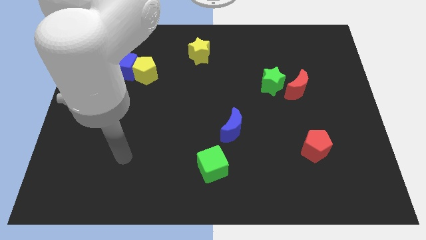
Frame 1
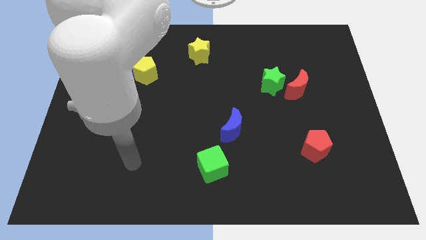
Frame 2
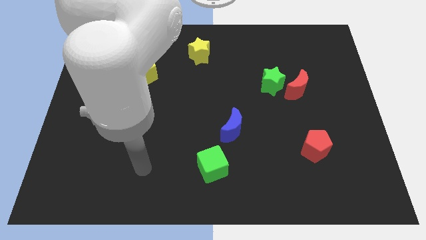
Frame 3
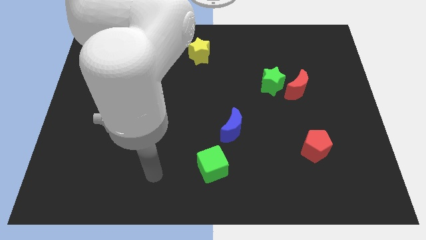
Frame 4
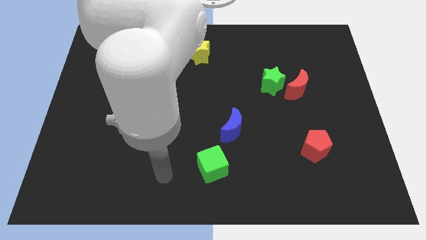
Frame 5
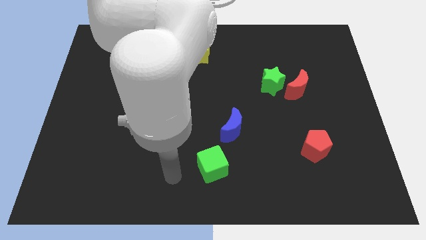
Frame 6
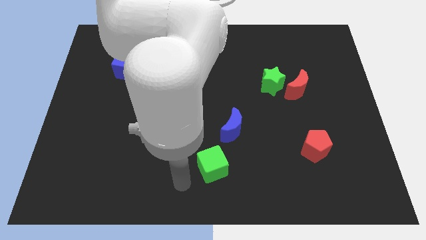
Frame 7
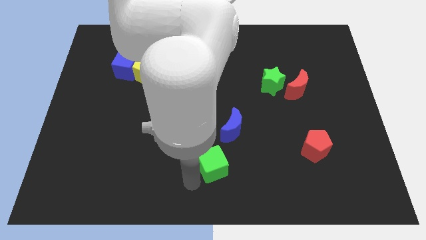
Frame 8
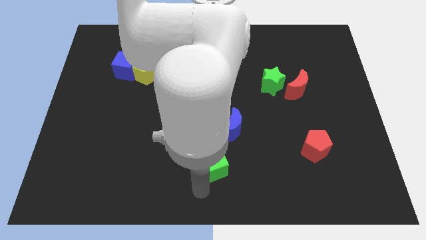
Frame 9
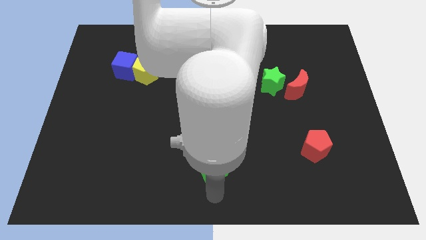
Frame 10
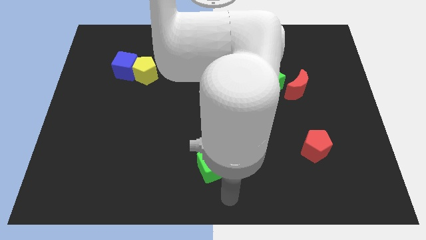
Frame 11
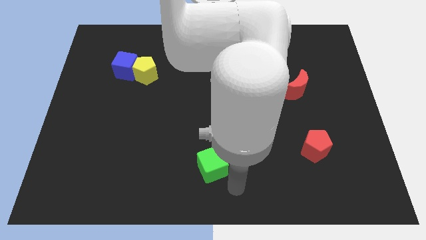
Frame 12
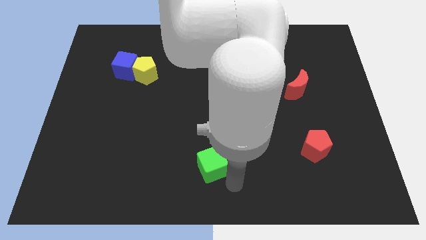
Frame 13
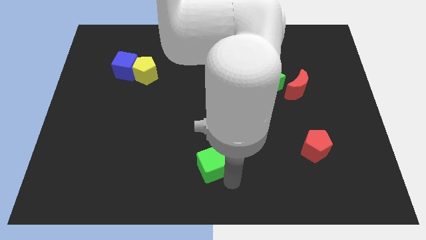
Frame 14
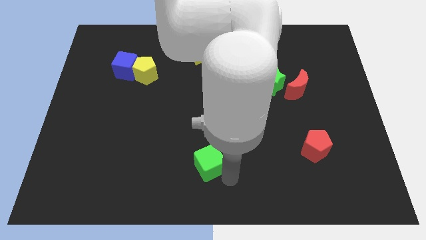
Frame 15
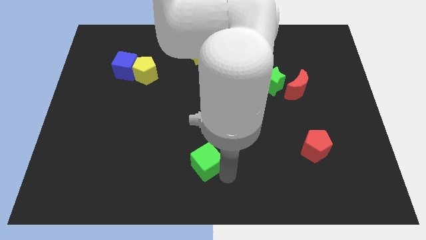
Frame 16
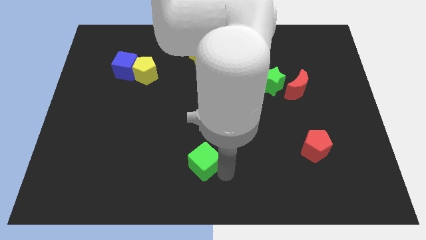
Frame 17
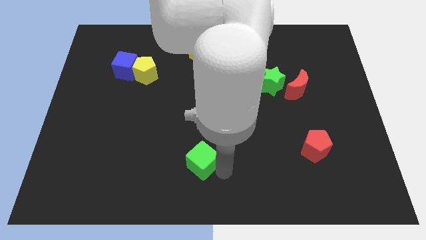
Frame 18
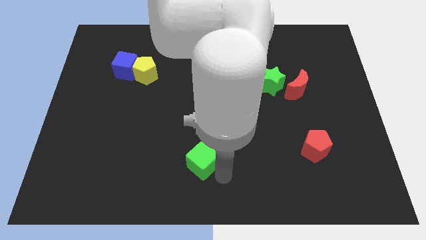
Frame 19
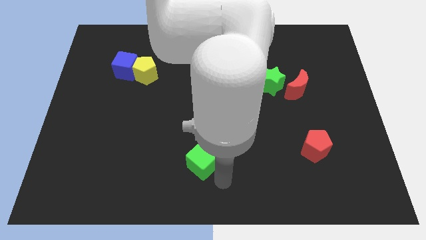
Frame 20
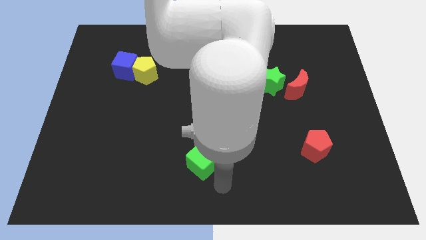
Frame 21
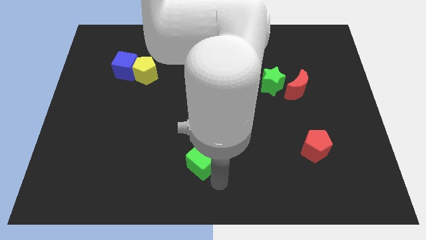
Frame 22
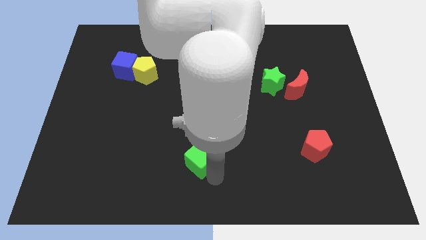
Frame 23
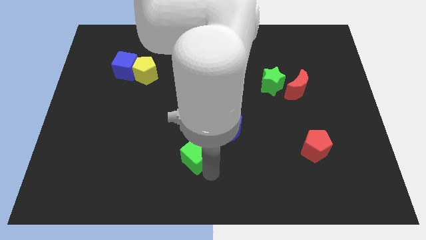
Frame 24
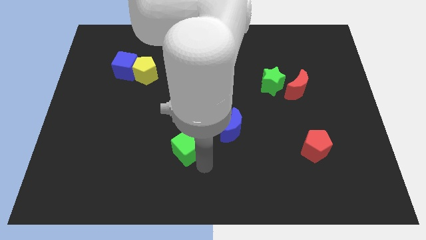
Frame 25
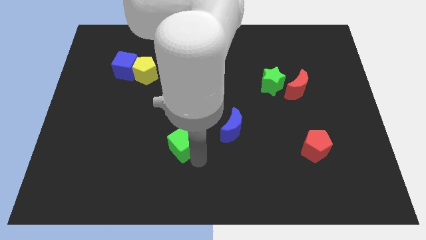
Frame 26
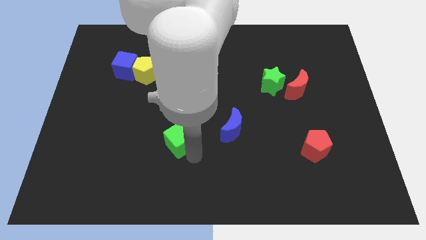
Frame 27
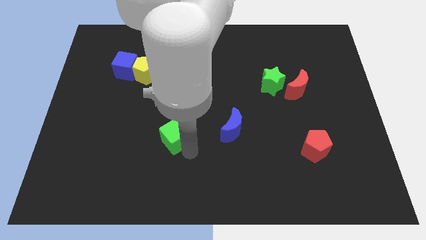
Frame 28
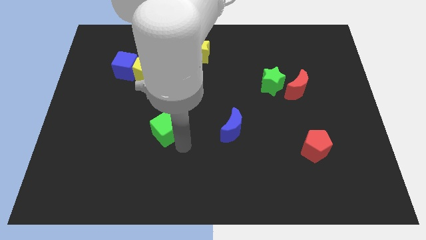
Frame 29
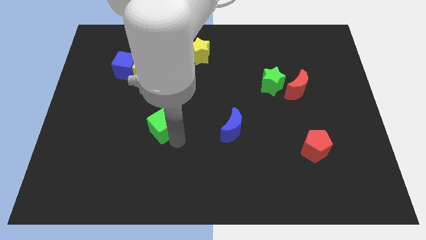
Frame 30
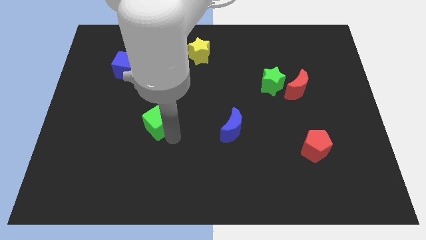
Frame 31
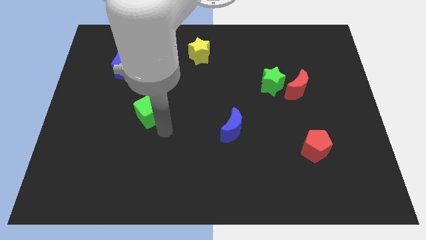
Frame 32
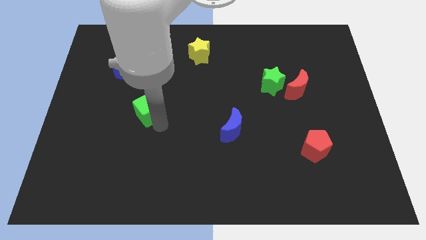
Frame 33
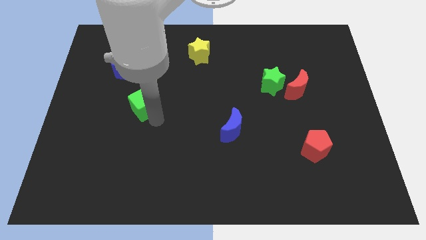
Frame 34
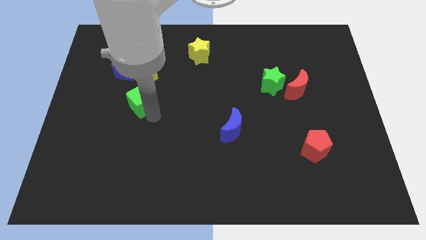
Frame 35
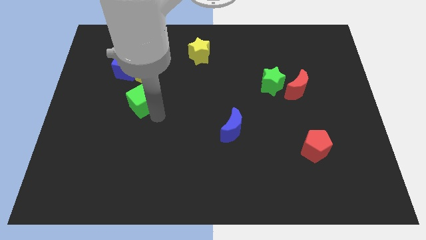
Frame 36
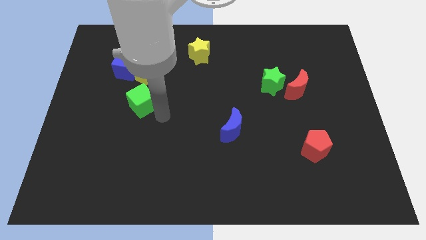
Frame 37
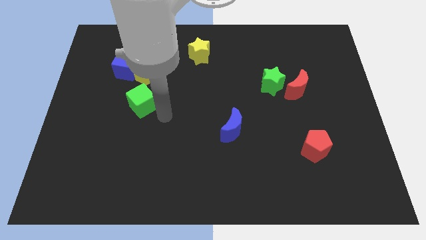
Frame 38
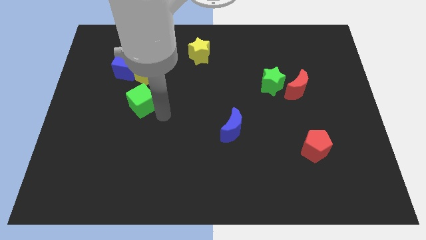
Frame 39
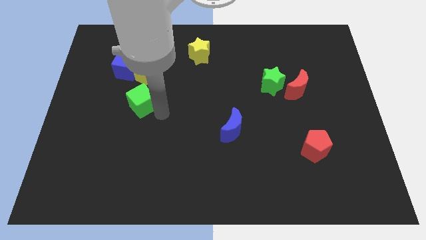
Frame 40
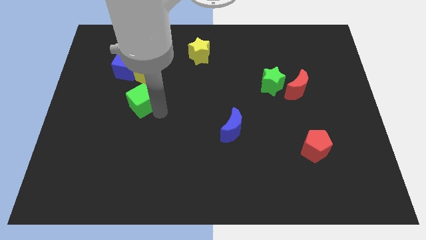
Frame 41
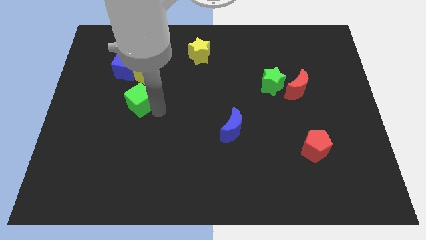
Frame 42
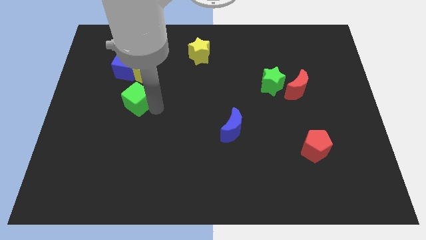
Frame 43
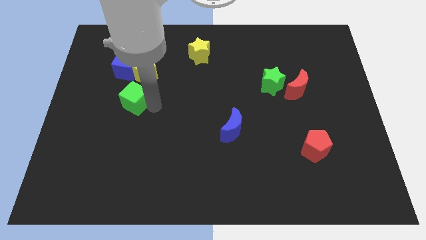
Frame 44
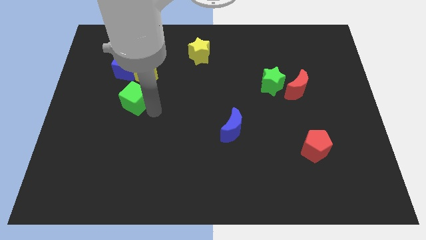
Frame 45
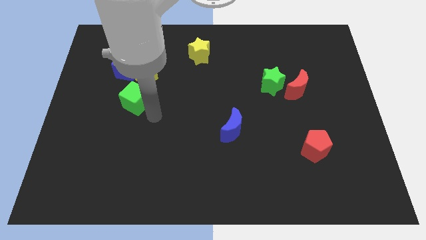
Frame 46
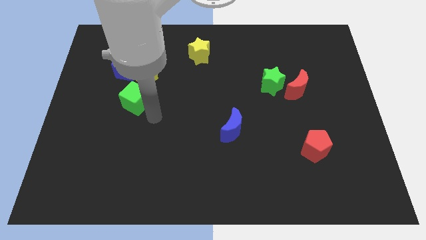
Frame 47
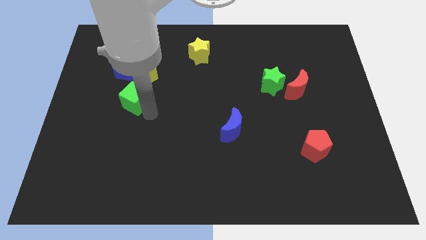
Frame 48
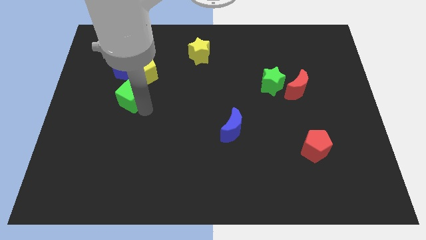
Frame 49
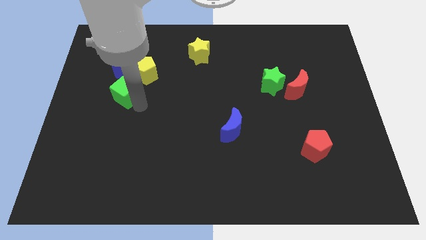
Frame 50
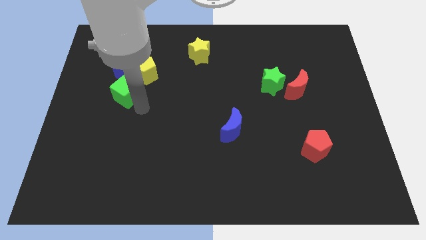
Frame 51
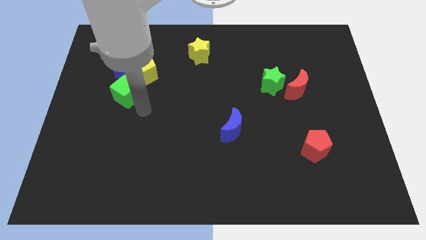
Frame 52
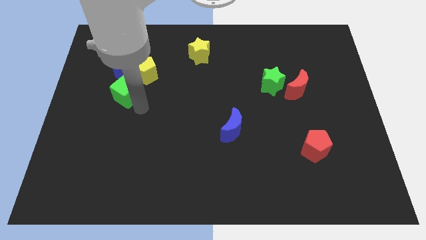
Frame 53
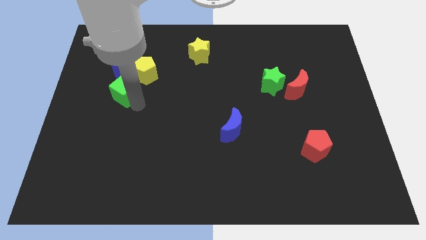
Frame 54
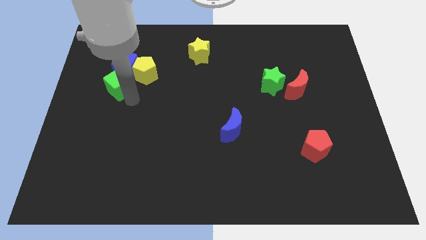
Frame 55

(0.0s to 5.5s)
slide the green cube just left of the yellow pentagon

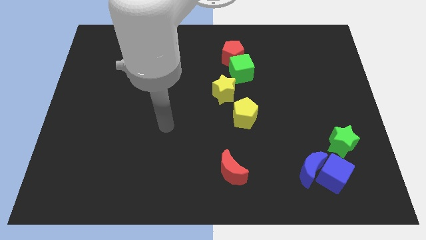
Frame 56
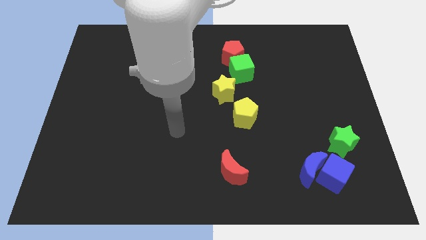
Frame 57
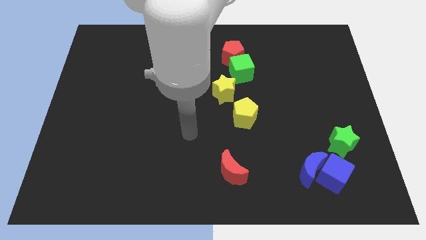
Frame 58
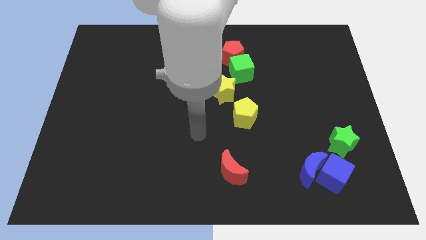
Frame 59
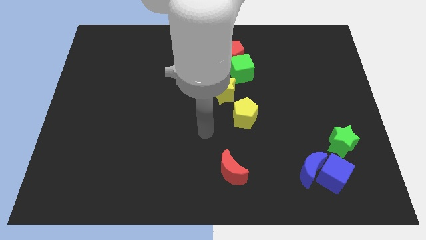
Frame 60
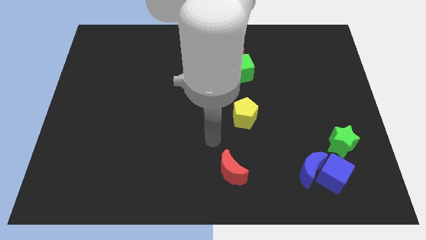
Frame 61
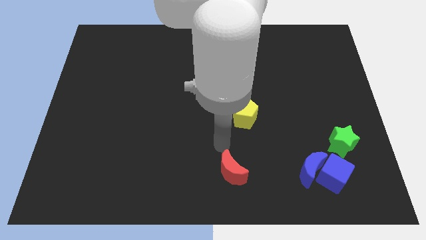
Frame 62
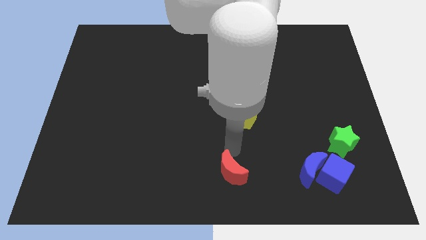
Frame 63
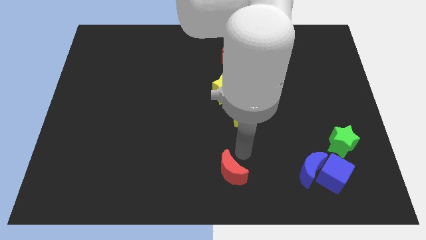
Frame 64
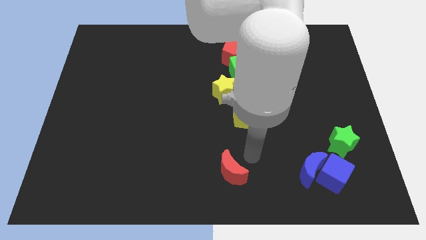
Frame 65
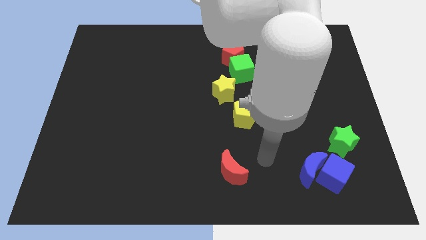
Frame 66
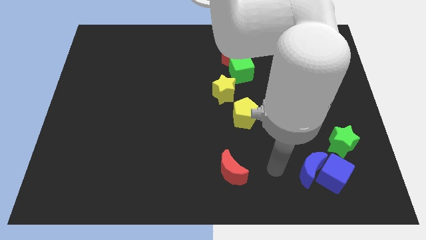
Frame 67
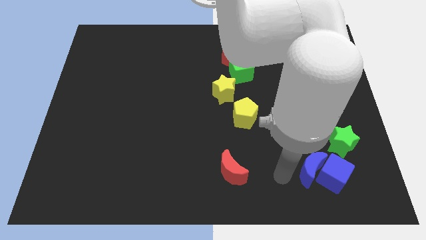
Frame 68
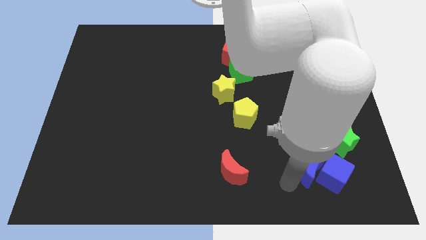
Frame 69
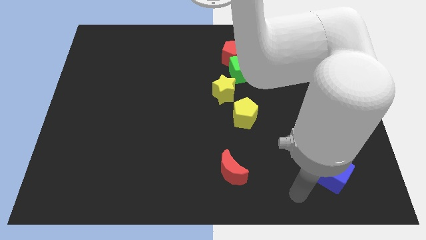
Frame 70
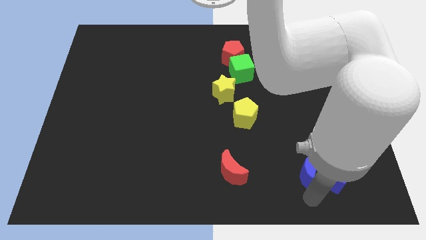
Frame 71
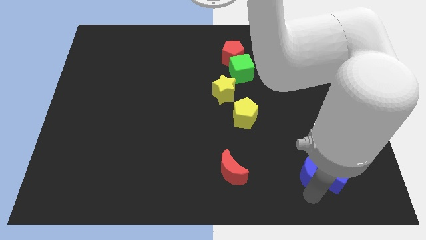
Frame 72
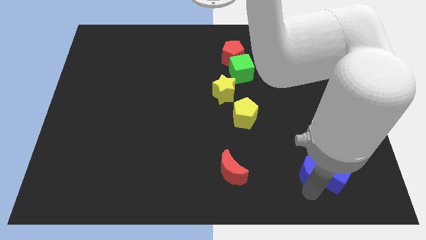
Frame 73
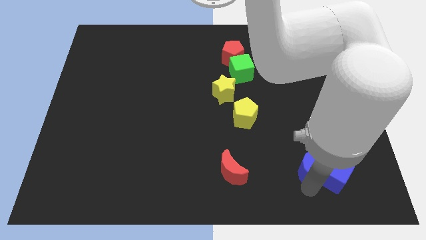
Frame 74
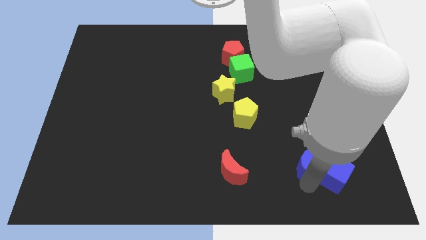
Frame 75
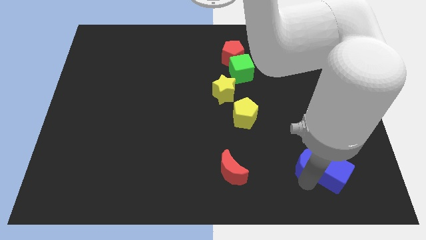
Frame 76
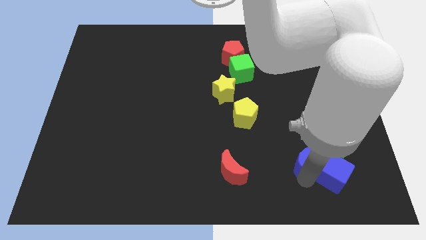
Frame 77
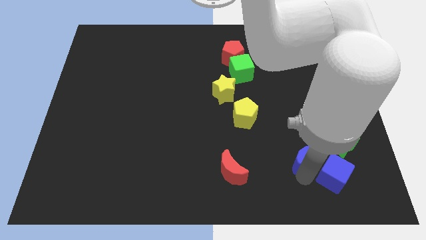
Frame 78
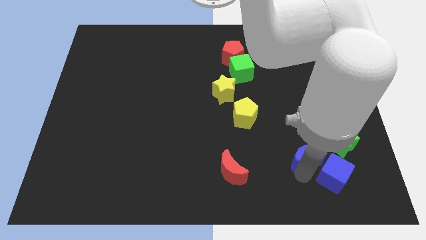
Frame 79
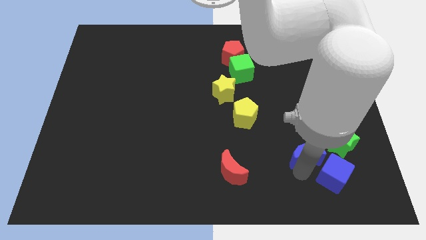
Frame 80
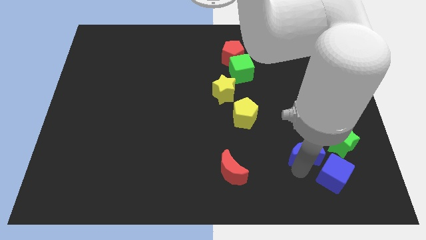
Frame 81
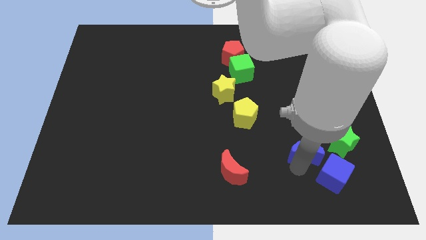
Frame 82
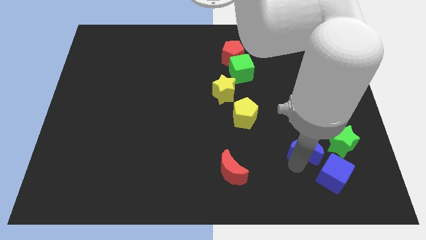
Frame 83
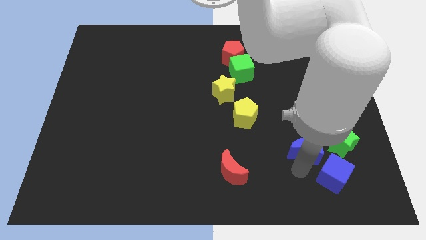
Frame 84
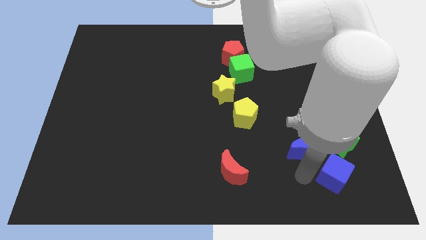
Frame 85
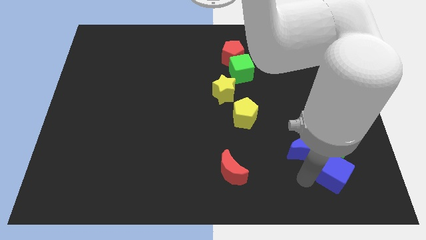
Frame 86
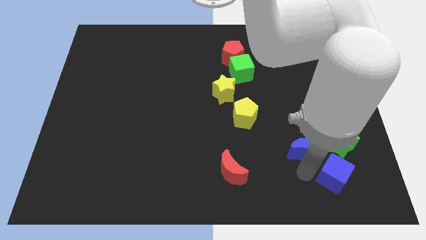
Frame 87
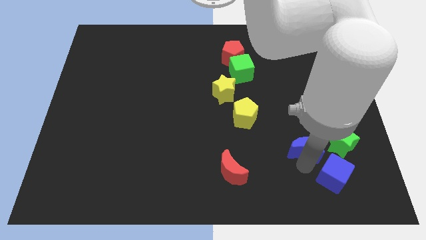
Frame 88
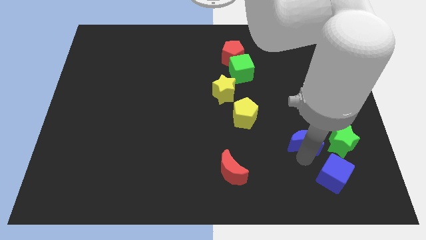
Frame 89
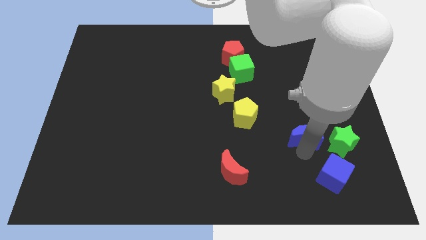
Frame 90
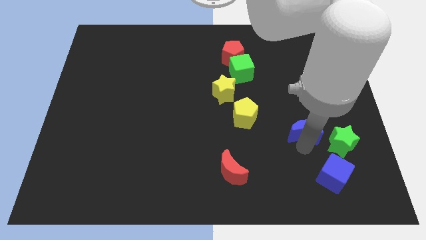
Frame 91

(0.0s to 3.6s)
put the blue moon to the right side of the yellow pentagon
